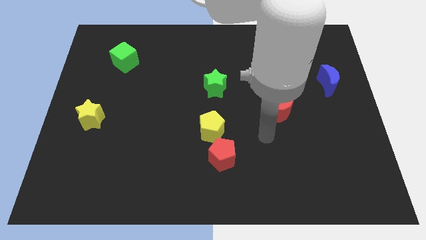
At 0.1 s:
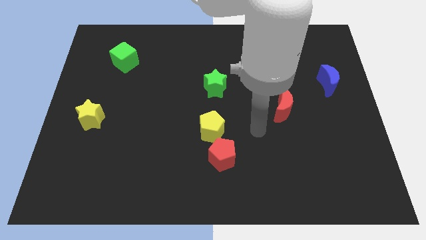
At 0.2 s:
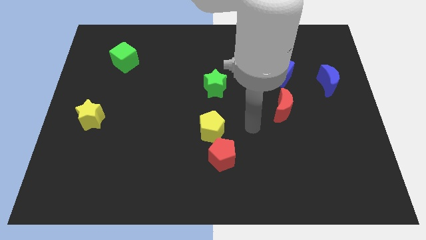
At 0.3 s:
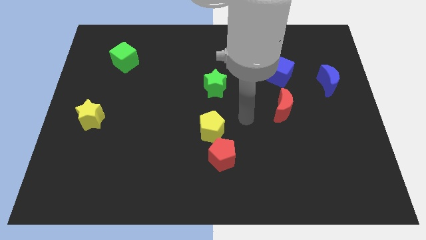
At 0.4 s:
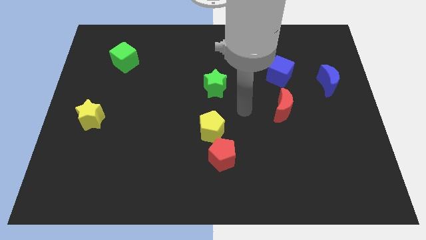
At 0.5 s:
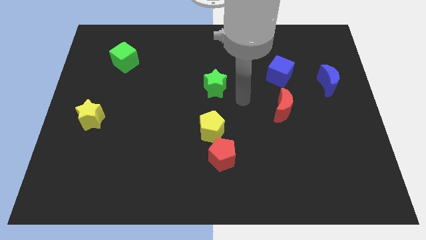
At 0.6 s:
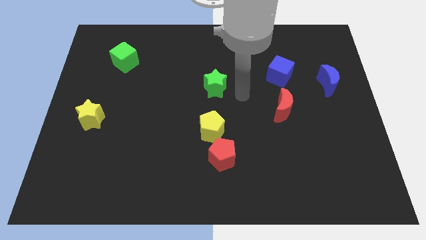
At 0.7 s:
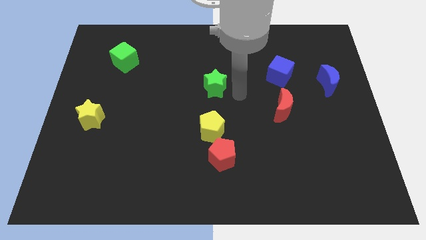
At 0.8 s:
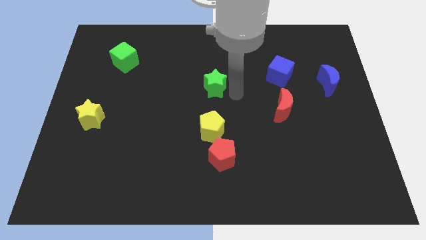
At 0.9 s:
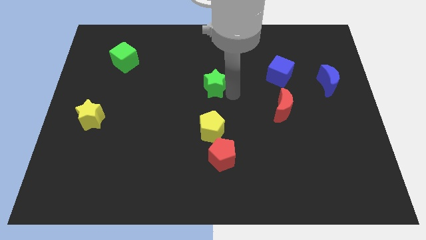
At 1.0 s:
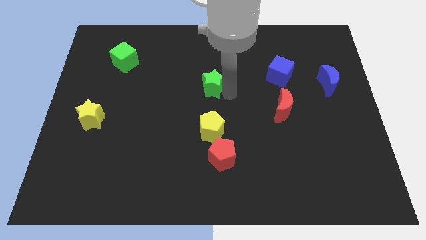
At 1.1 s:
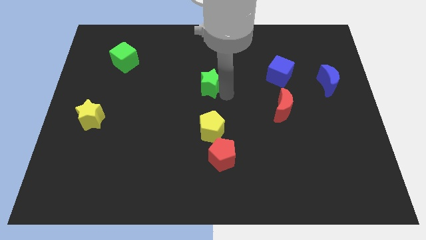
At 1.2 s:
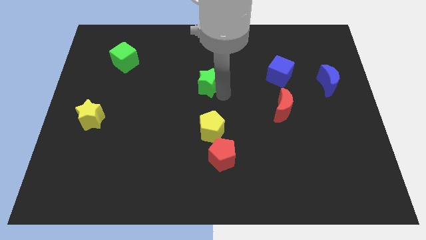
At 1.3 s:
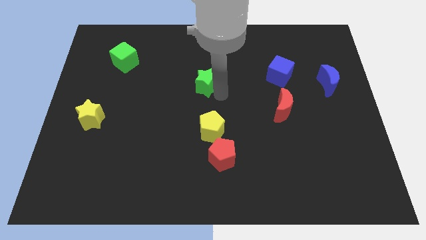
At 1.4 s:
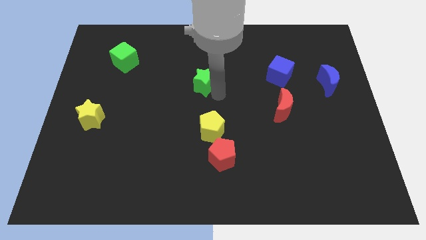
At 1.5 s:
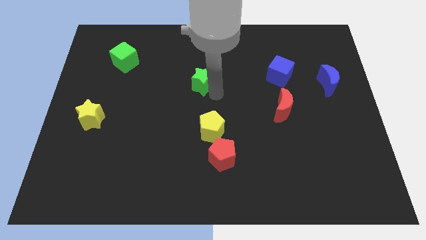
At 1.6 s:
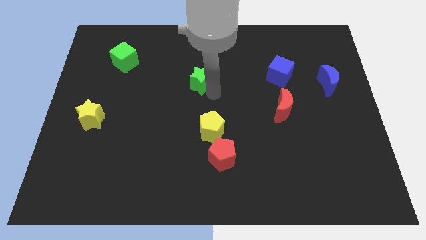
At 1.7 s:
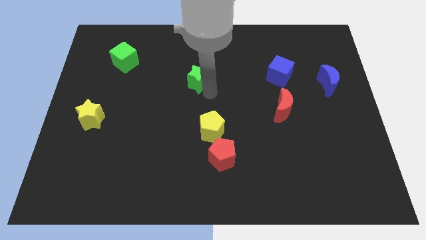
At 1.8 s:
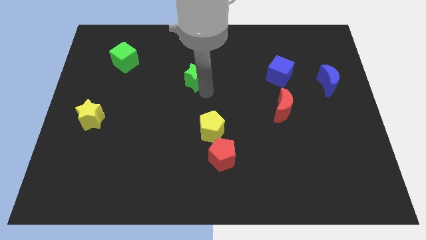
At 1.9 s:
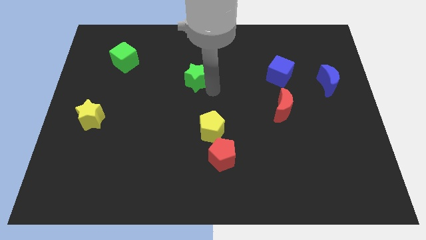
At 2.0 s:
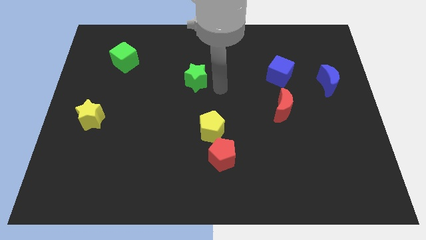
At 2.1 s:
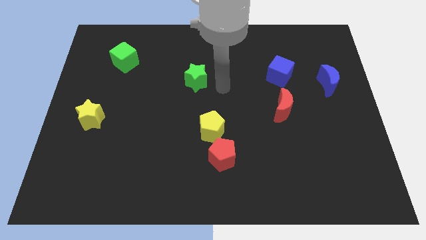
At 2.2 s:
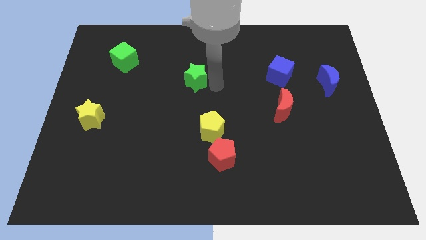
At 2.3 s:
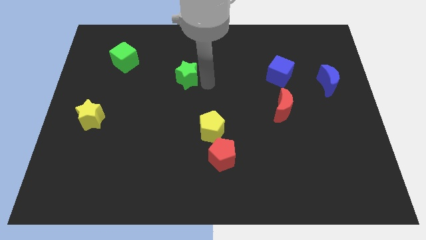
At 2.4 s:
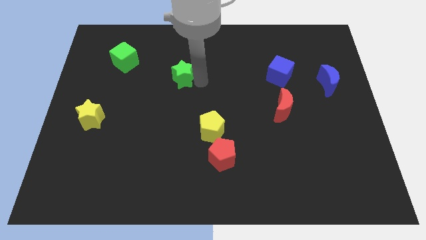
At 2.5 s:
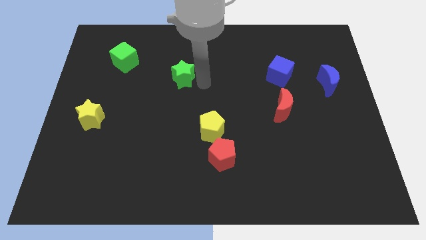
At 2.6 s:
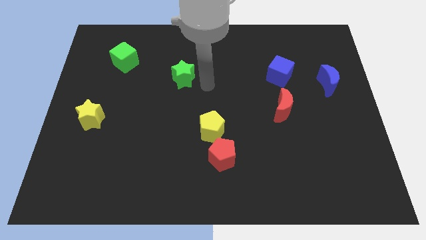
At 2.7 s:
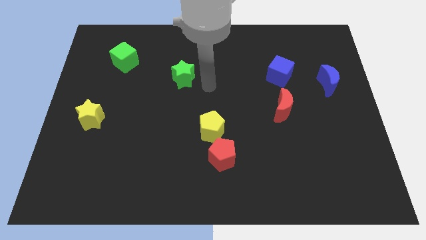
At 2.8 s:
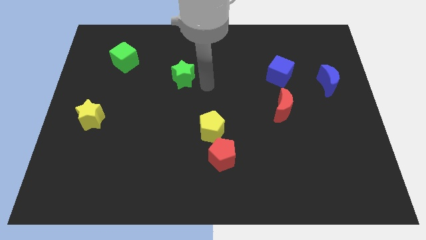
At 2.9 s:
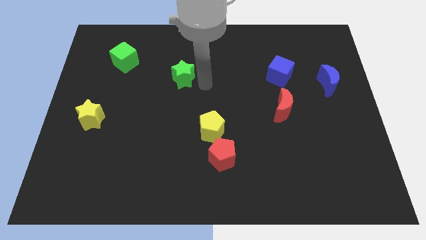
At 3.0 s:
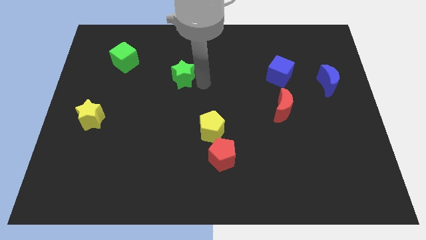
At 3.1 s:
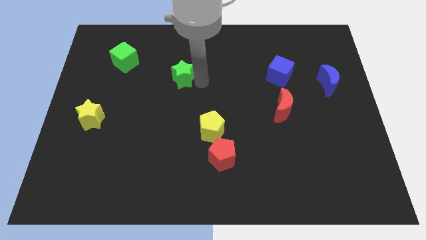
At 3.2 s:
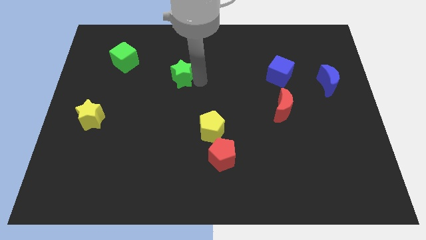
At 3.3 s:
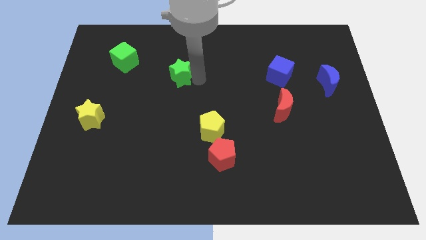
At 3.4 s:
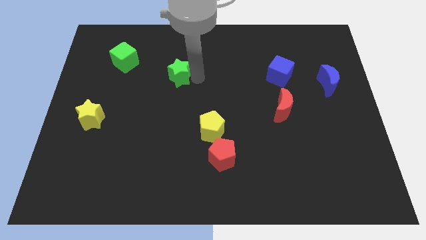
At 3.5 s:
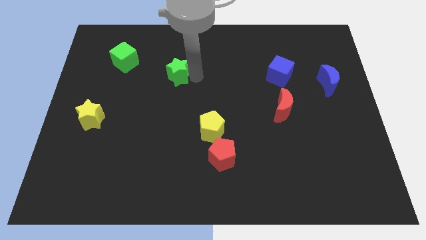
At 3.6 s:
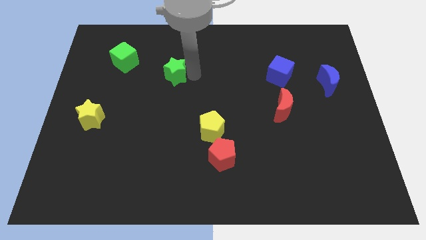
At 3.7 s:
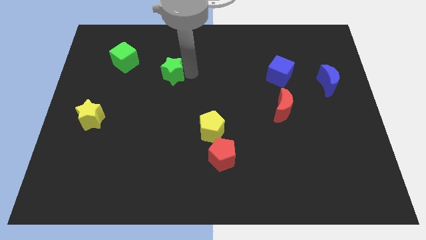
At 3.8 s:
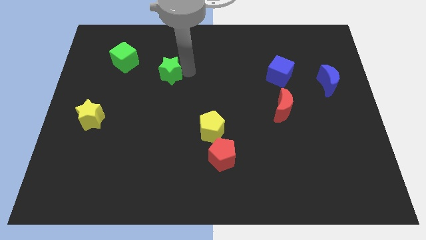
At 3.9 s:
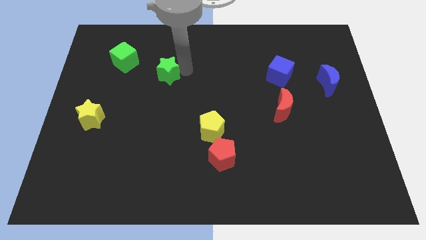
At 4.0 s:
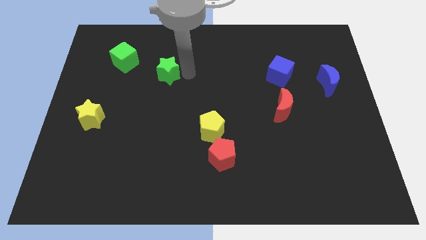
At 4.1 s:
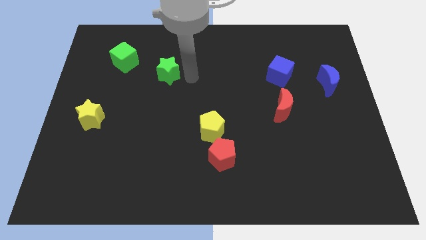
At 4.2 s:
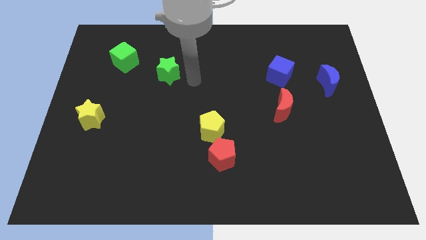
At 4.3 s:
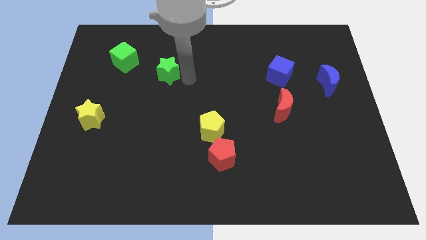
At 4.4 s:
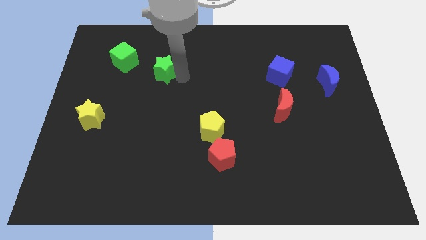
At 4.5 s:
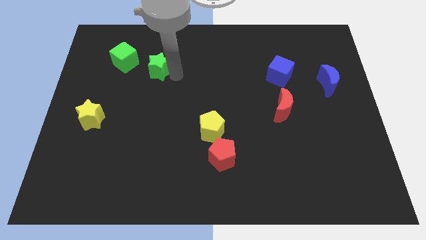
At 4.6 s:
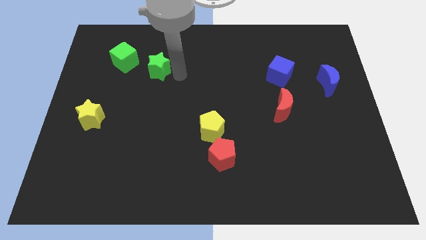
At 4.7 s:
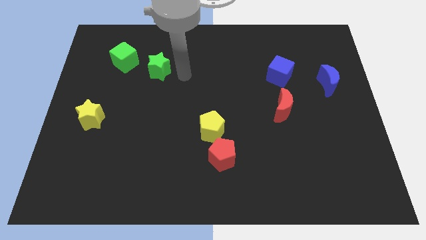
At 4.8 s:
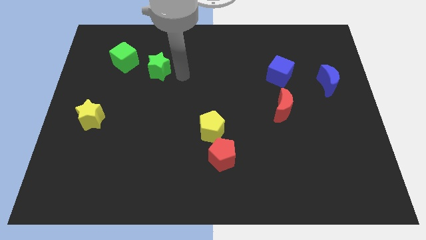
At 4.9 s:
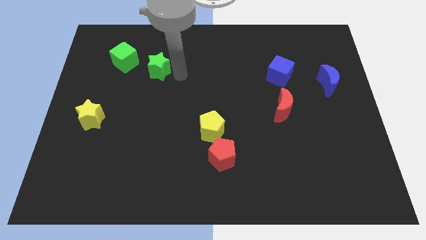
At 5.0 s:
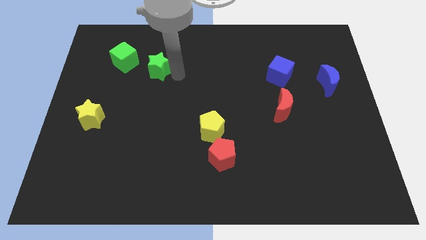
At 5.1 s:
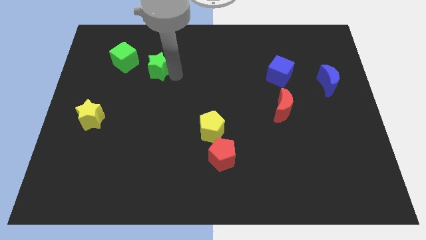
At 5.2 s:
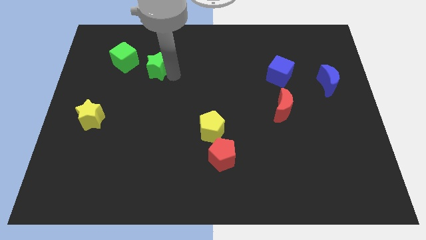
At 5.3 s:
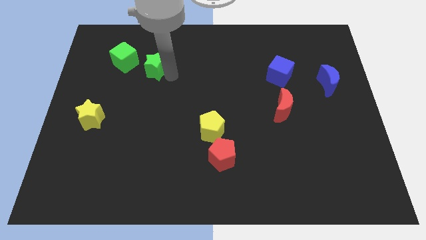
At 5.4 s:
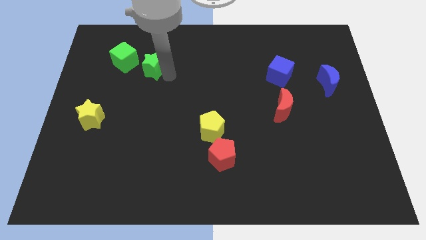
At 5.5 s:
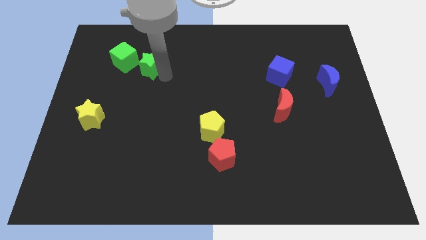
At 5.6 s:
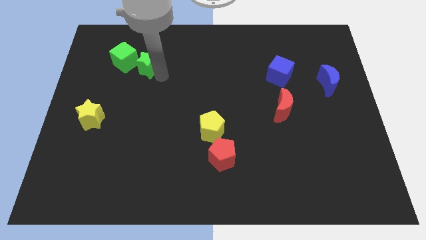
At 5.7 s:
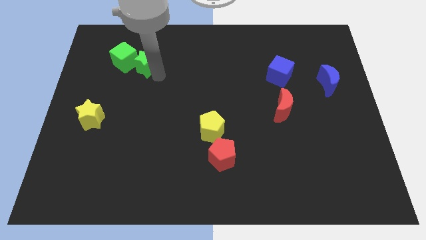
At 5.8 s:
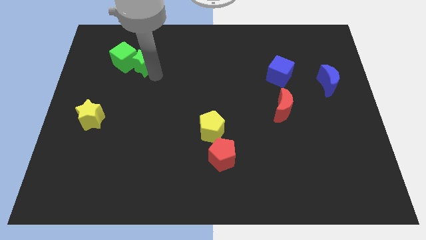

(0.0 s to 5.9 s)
push the green star towards the green cube

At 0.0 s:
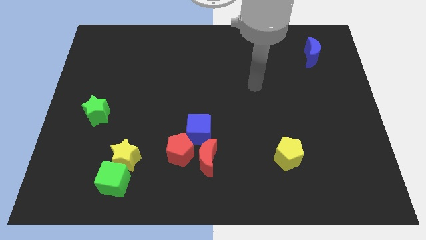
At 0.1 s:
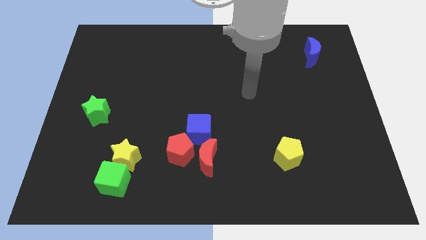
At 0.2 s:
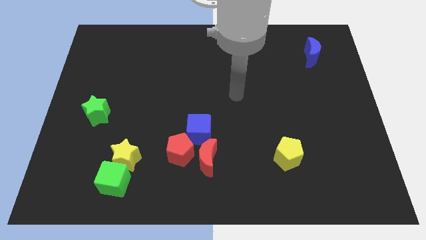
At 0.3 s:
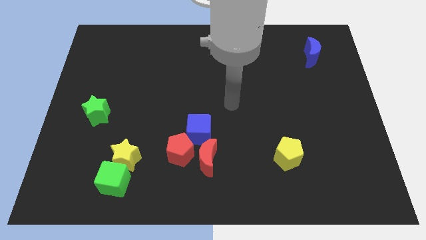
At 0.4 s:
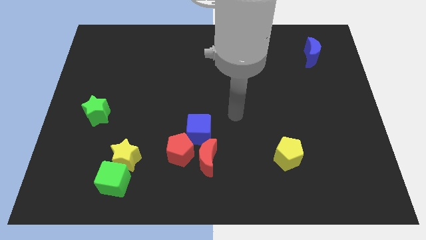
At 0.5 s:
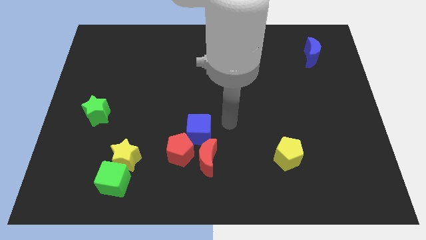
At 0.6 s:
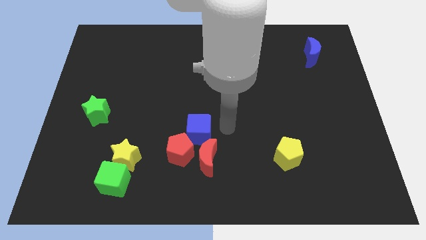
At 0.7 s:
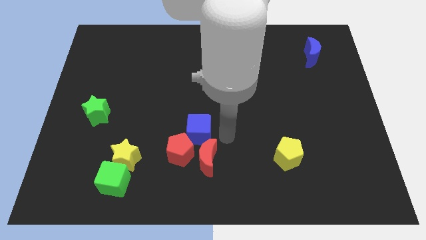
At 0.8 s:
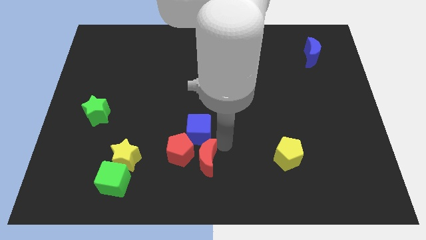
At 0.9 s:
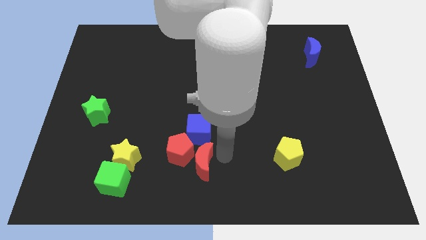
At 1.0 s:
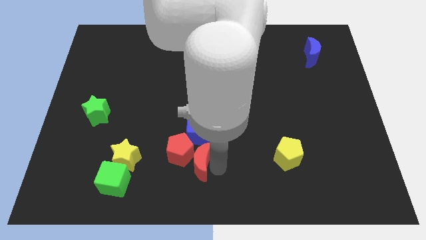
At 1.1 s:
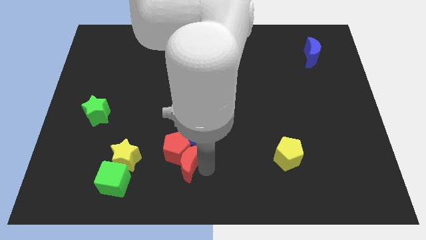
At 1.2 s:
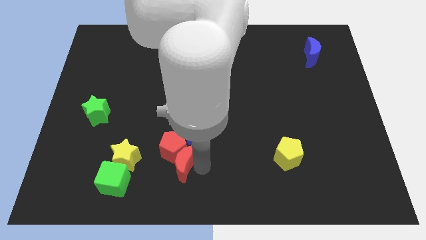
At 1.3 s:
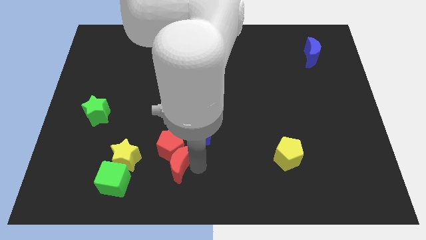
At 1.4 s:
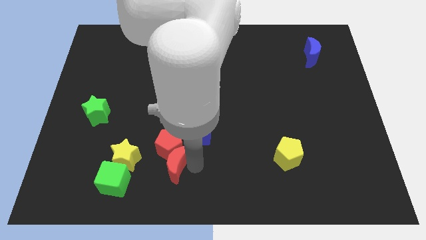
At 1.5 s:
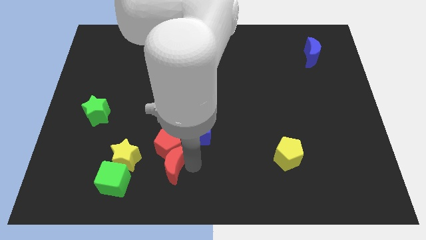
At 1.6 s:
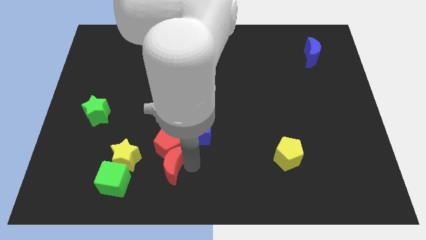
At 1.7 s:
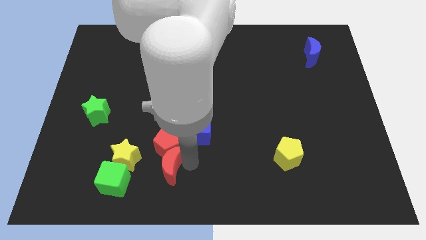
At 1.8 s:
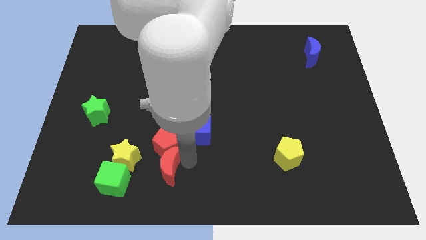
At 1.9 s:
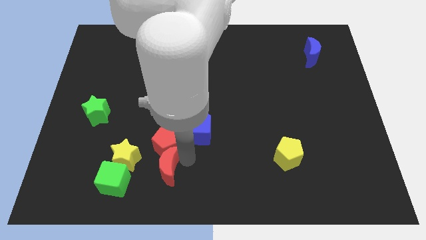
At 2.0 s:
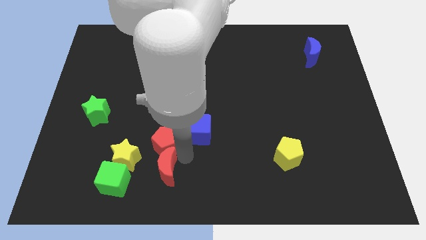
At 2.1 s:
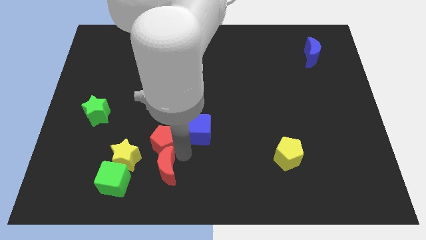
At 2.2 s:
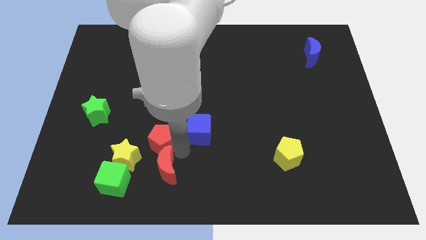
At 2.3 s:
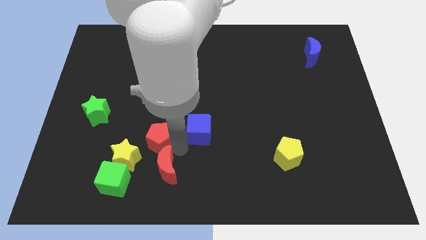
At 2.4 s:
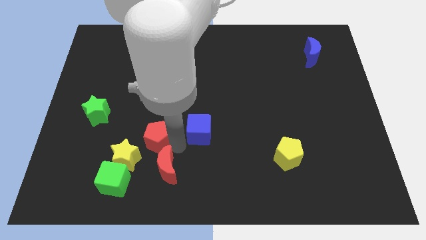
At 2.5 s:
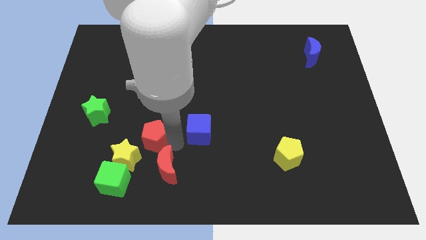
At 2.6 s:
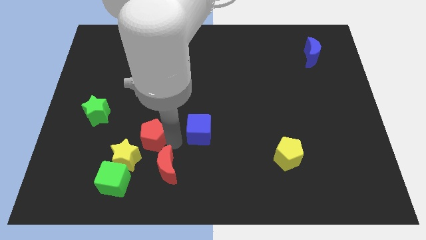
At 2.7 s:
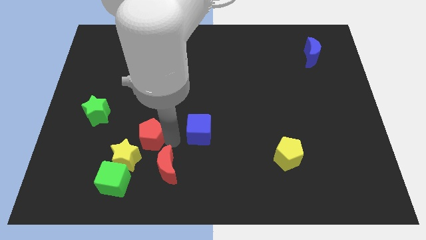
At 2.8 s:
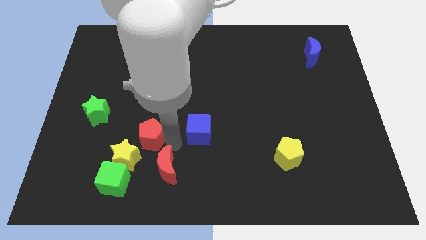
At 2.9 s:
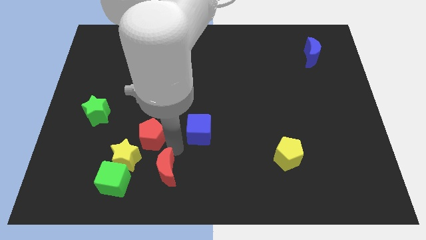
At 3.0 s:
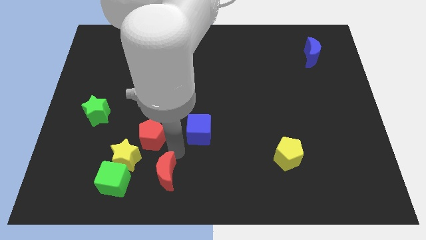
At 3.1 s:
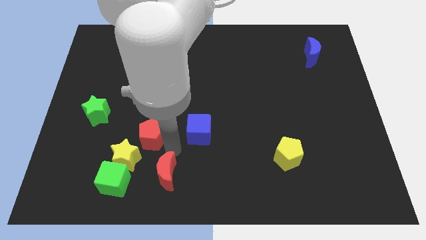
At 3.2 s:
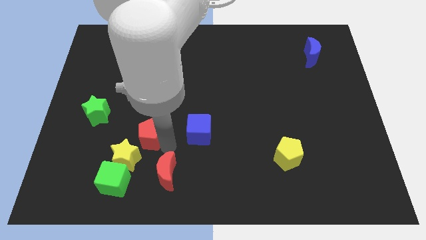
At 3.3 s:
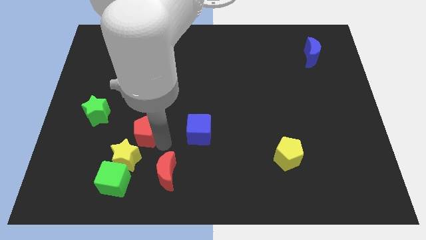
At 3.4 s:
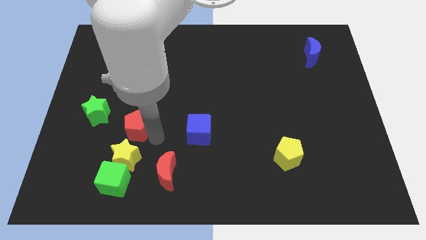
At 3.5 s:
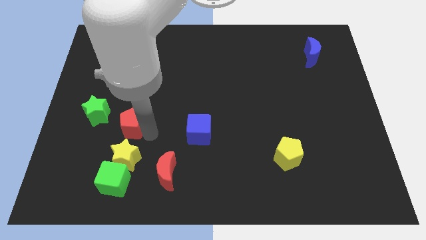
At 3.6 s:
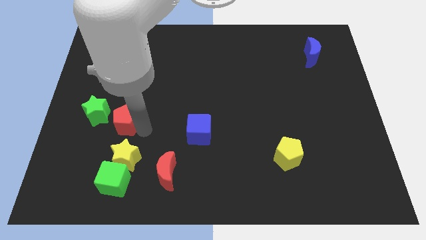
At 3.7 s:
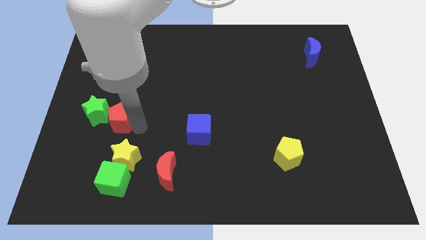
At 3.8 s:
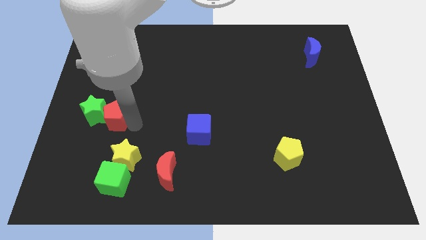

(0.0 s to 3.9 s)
move the red pentagon to the green star
